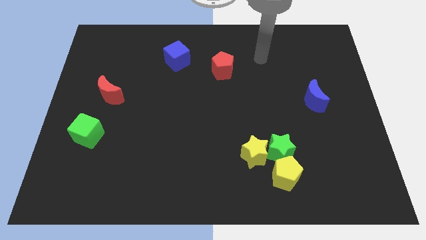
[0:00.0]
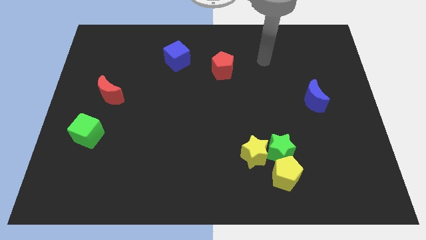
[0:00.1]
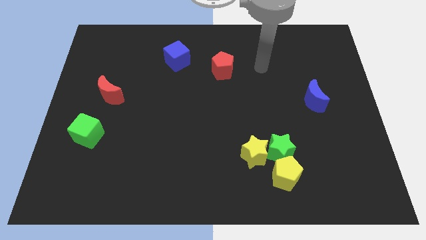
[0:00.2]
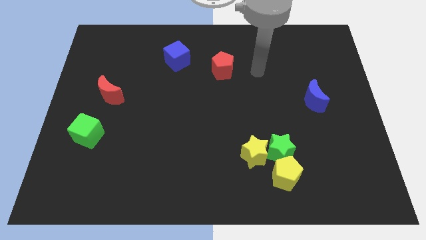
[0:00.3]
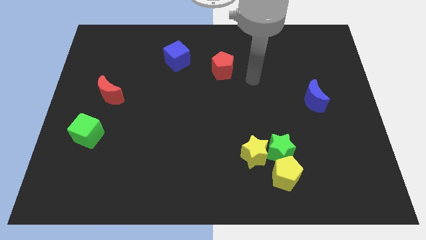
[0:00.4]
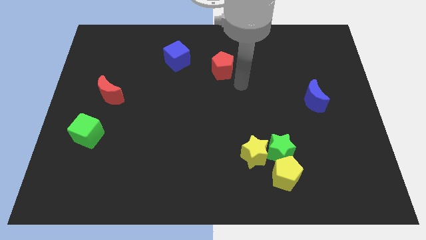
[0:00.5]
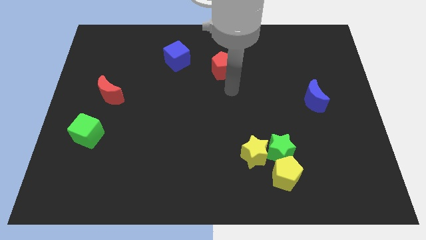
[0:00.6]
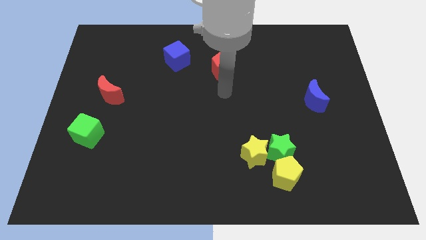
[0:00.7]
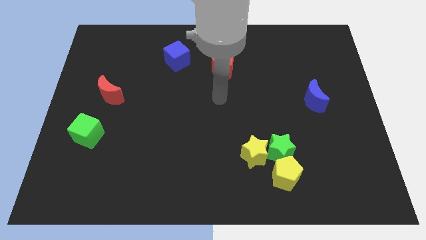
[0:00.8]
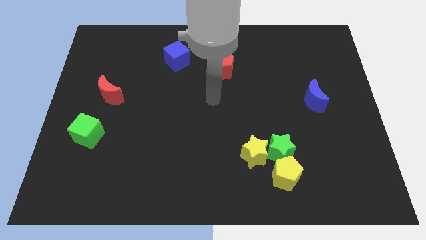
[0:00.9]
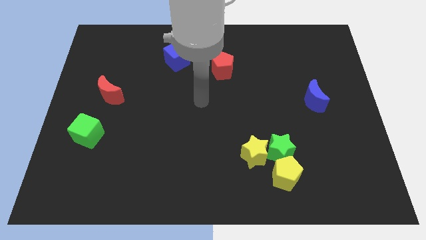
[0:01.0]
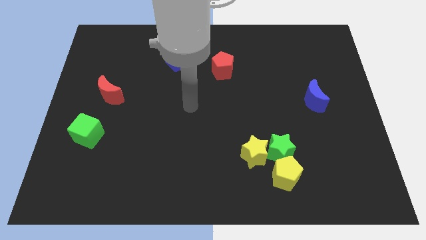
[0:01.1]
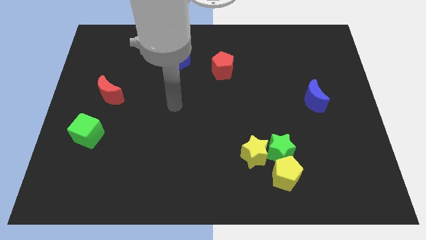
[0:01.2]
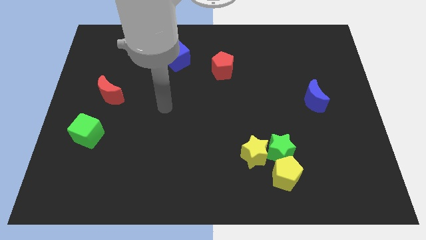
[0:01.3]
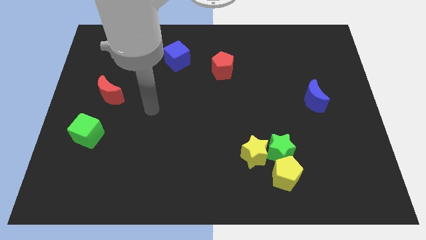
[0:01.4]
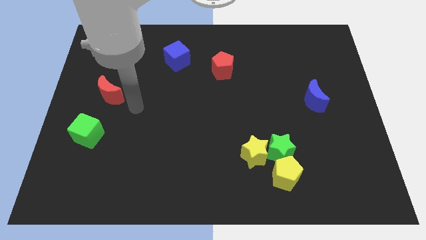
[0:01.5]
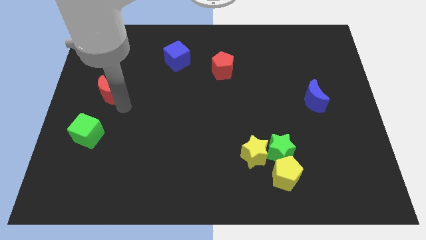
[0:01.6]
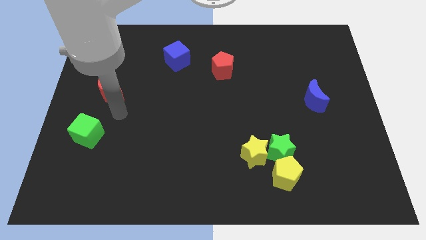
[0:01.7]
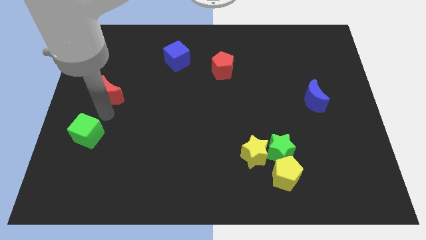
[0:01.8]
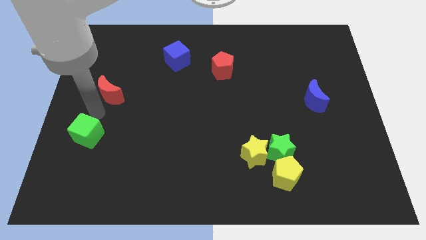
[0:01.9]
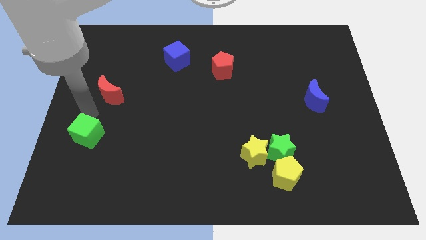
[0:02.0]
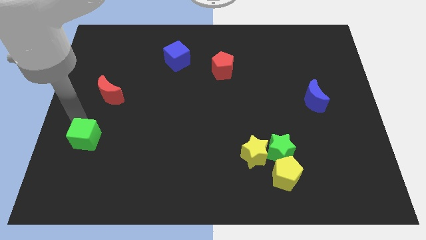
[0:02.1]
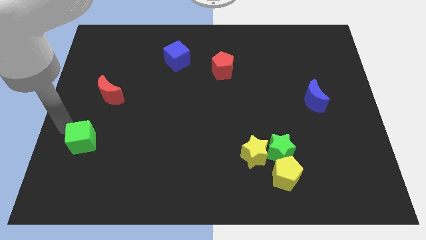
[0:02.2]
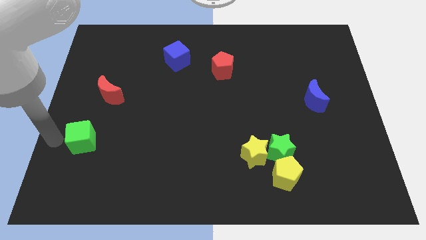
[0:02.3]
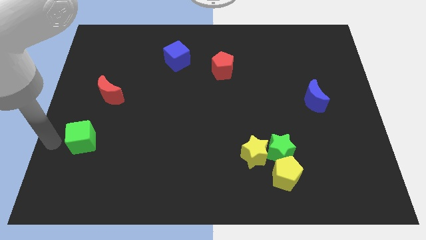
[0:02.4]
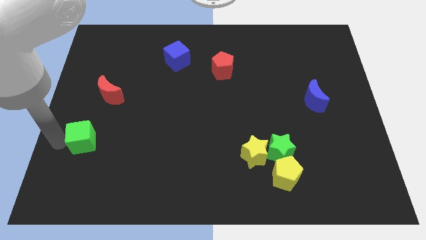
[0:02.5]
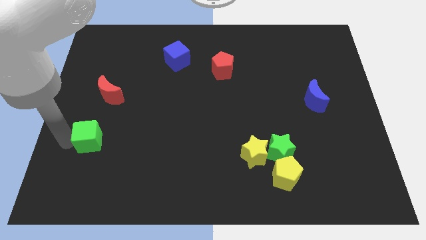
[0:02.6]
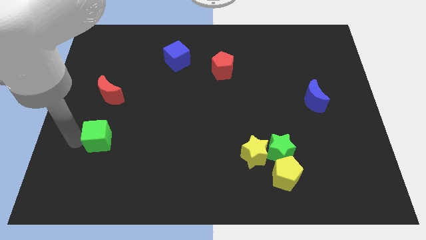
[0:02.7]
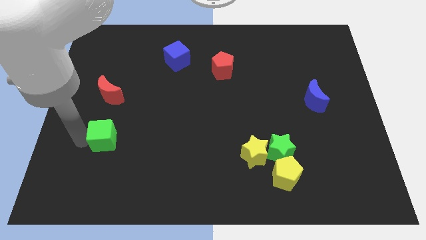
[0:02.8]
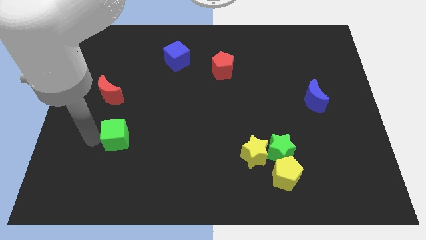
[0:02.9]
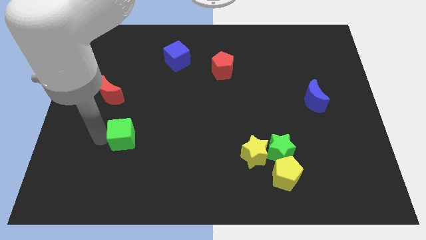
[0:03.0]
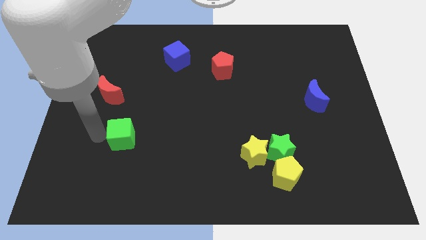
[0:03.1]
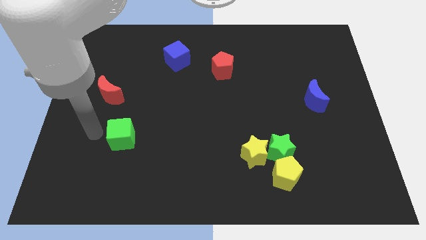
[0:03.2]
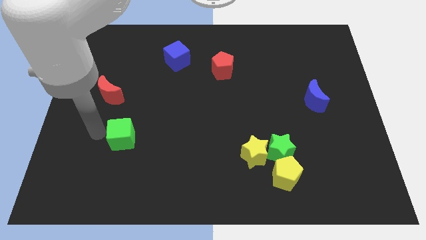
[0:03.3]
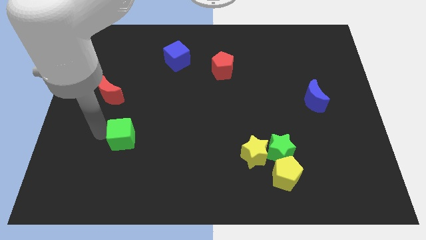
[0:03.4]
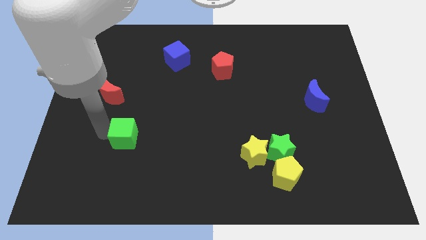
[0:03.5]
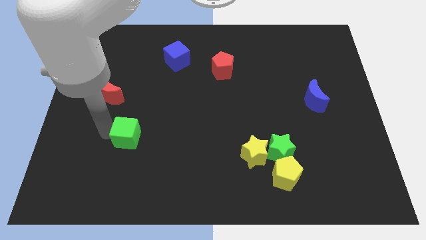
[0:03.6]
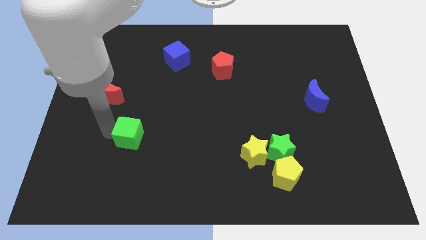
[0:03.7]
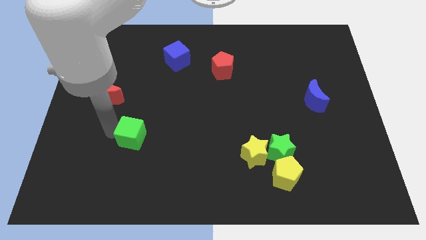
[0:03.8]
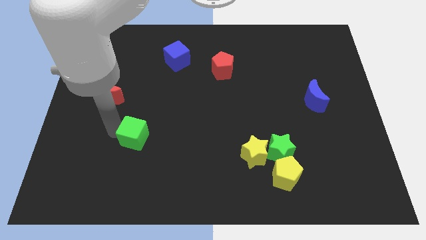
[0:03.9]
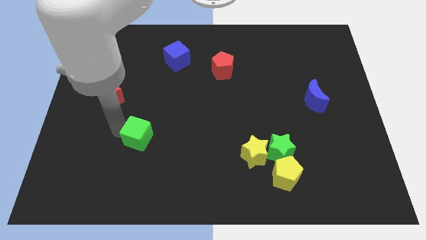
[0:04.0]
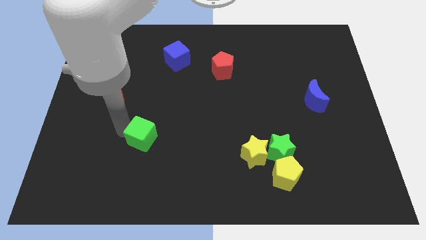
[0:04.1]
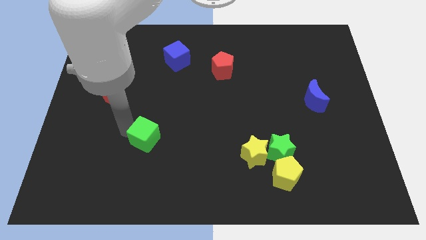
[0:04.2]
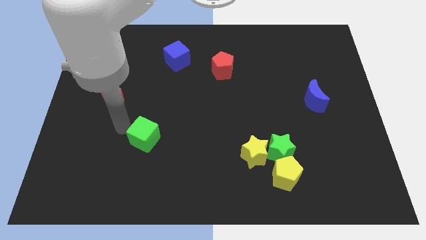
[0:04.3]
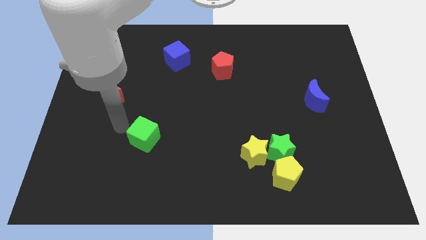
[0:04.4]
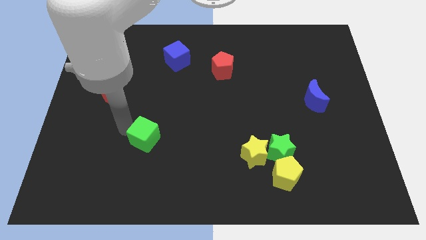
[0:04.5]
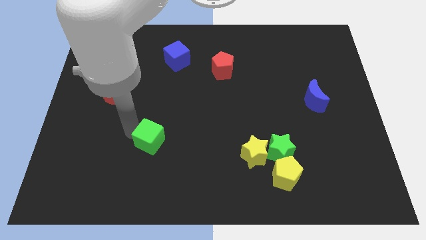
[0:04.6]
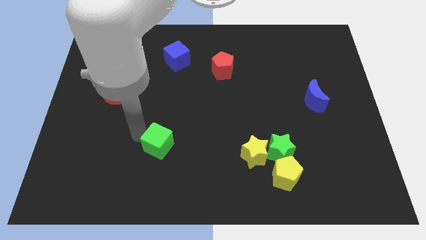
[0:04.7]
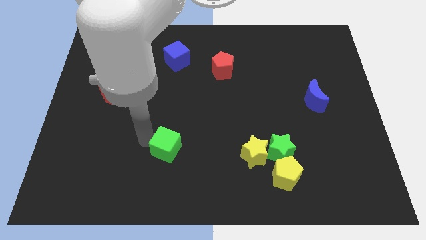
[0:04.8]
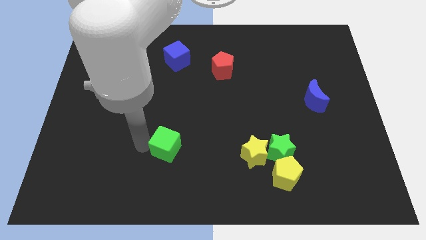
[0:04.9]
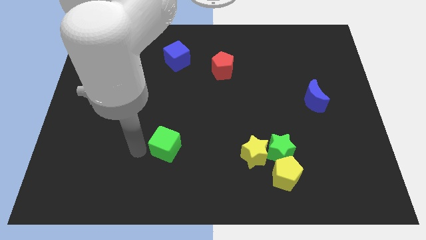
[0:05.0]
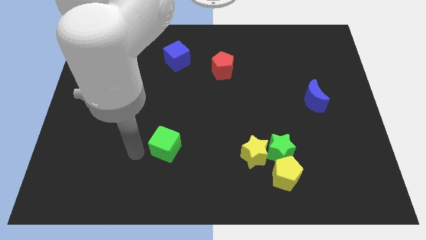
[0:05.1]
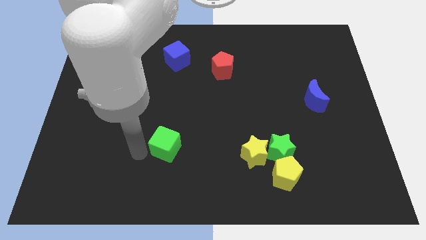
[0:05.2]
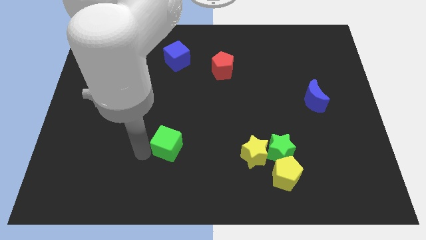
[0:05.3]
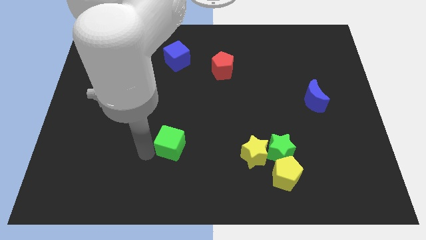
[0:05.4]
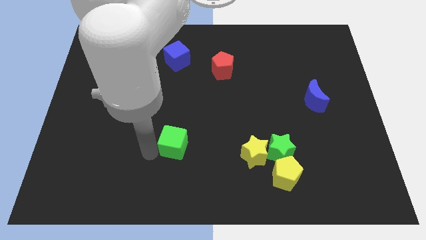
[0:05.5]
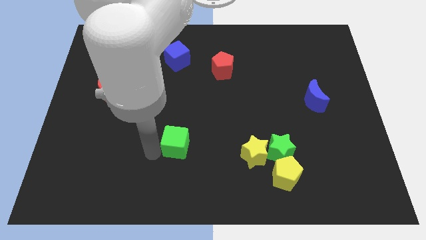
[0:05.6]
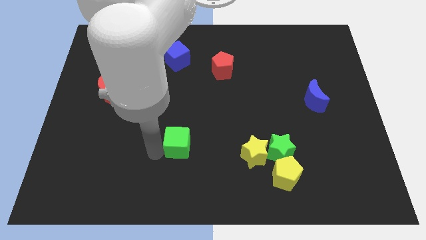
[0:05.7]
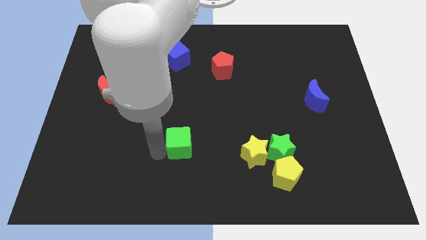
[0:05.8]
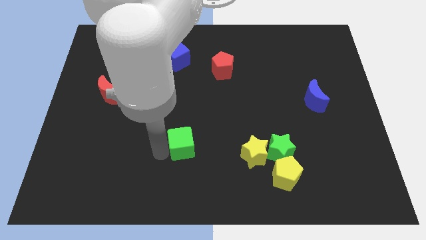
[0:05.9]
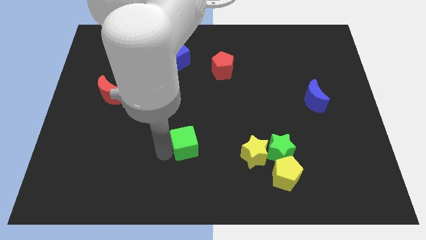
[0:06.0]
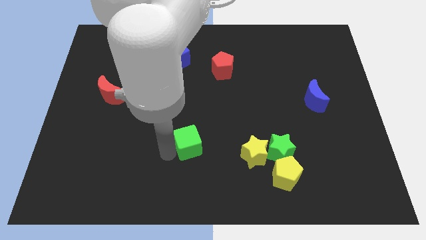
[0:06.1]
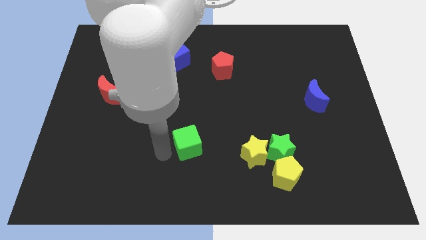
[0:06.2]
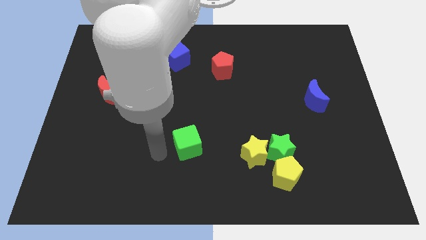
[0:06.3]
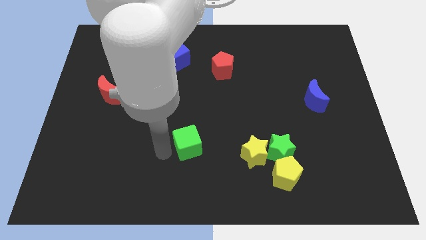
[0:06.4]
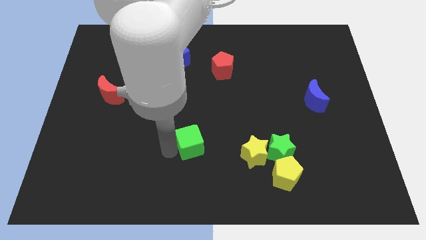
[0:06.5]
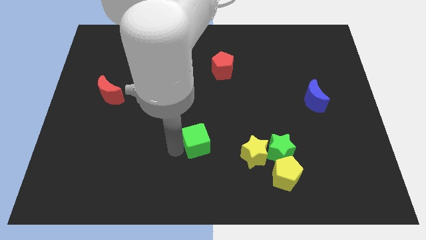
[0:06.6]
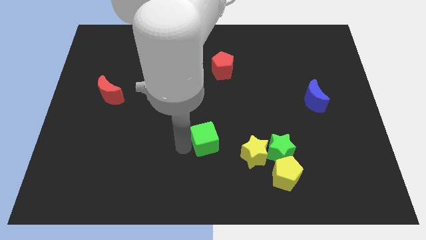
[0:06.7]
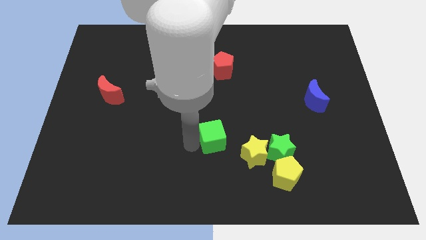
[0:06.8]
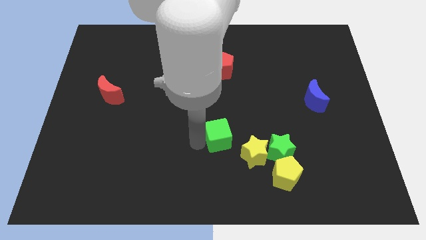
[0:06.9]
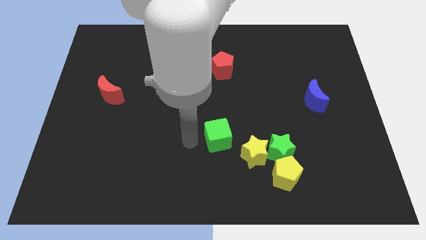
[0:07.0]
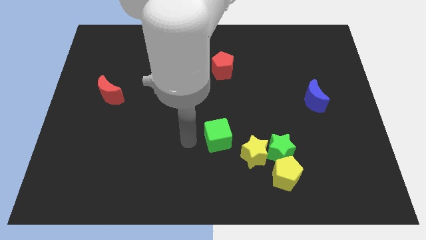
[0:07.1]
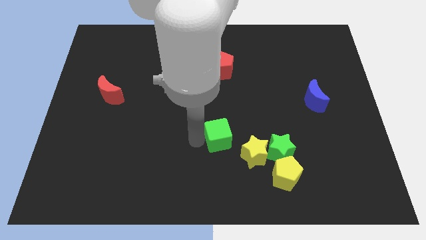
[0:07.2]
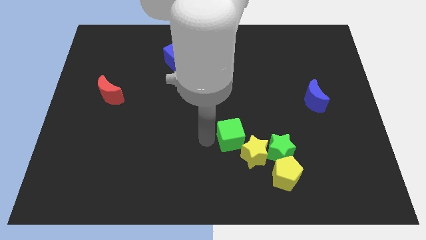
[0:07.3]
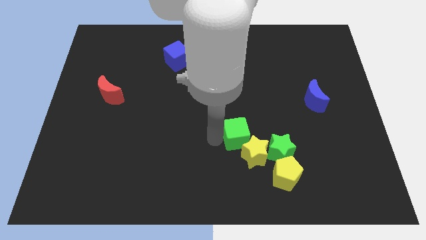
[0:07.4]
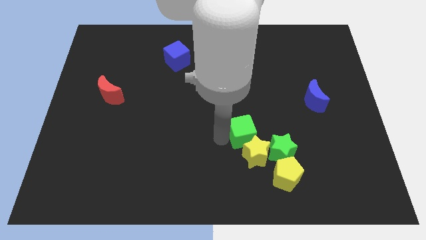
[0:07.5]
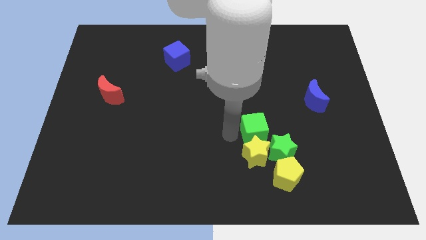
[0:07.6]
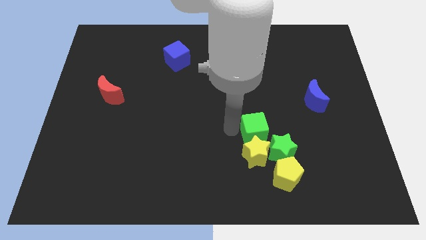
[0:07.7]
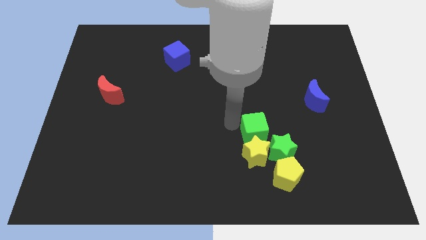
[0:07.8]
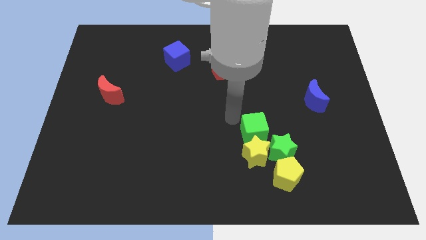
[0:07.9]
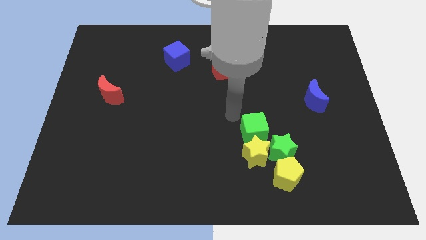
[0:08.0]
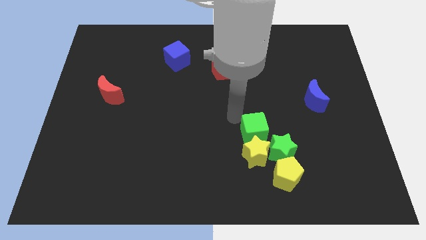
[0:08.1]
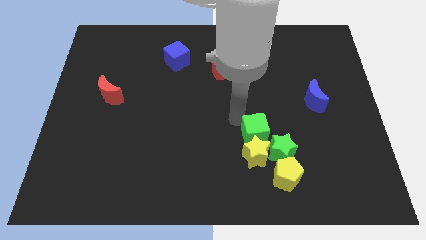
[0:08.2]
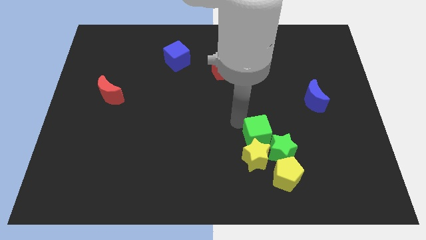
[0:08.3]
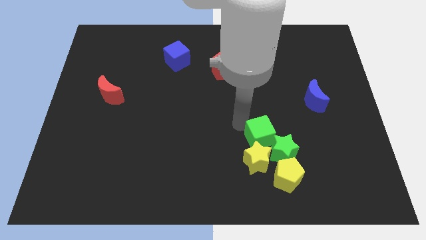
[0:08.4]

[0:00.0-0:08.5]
slide the green cube towards the green star
